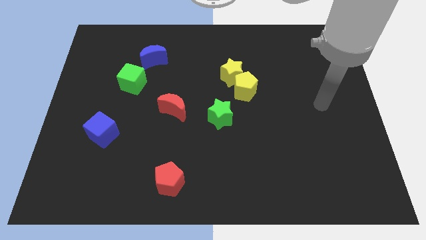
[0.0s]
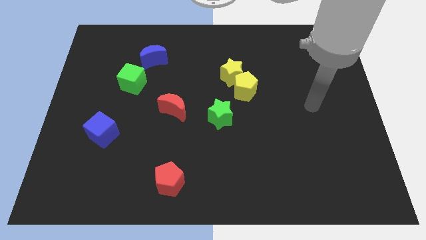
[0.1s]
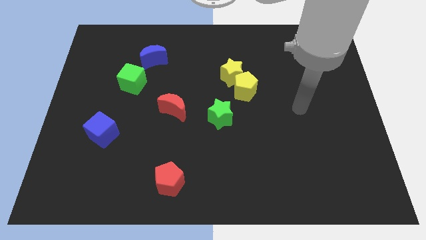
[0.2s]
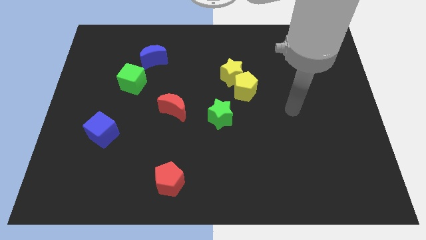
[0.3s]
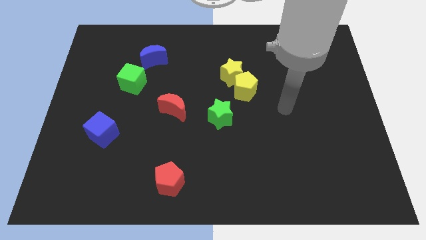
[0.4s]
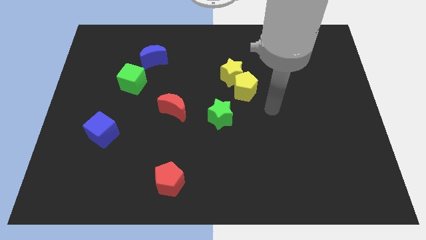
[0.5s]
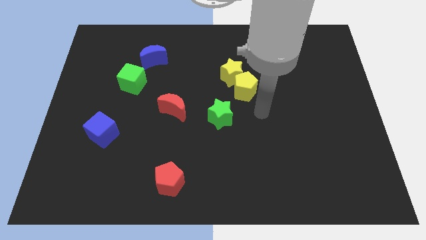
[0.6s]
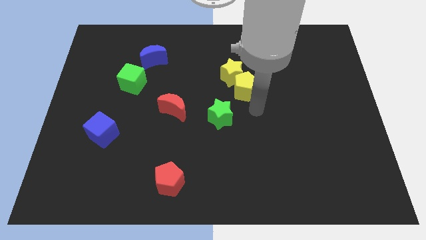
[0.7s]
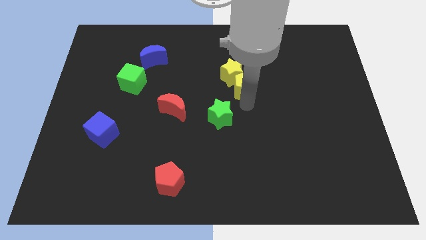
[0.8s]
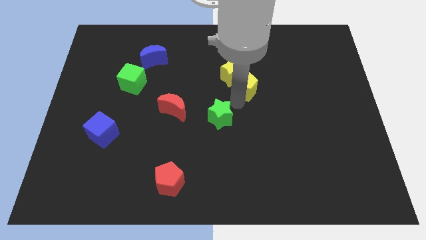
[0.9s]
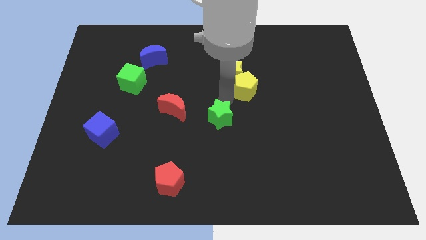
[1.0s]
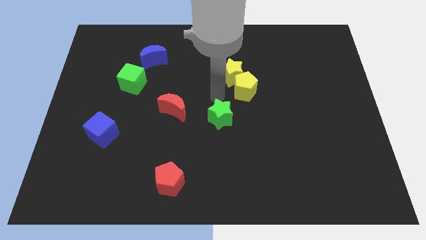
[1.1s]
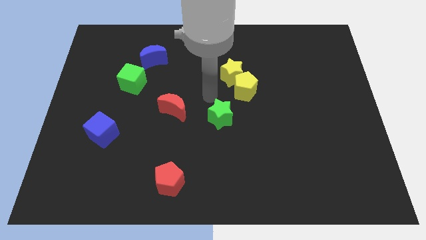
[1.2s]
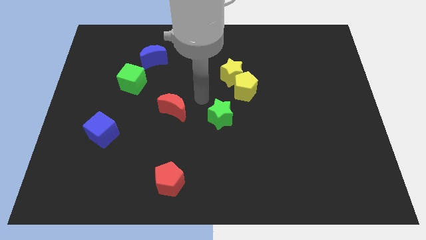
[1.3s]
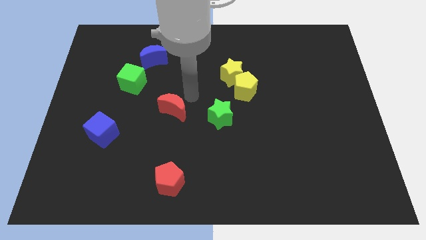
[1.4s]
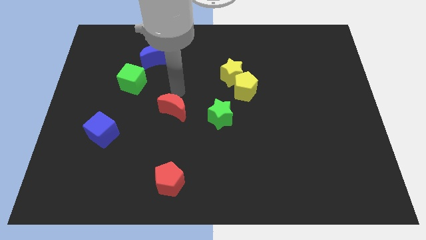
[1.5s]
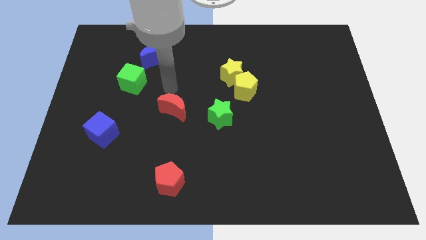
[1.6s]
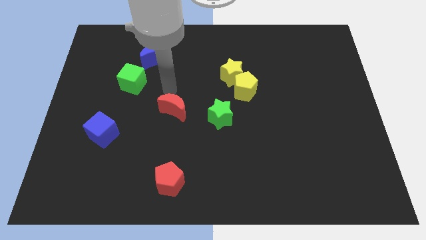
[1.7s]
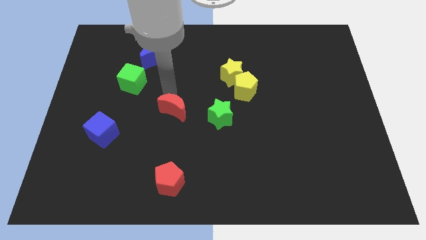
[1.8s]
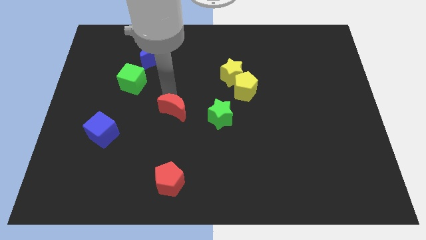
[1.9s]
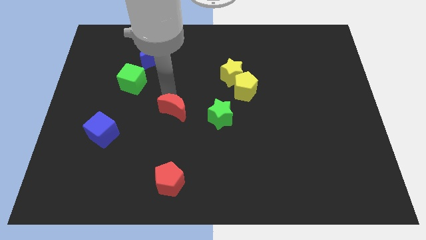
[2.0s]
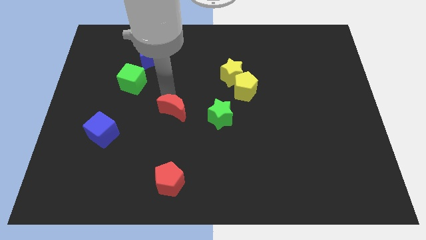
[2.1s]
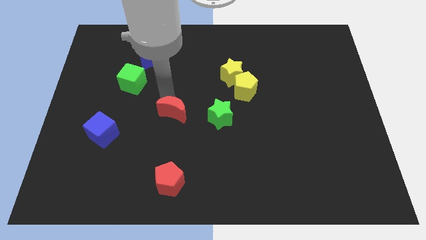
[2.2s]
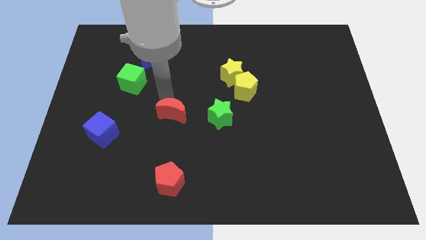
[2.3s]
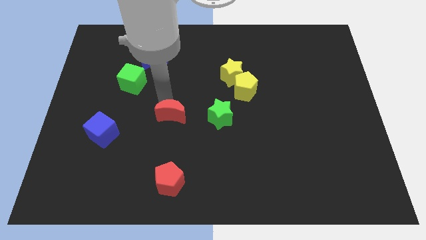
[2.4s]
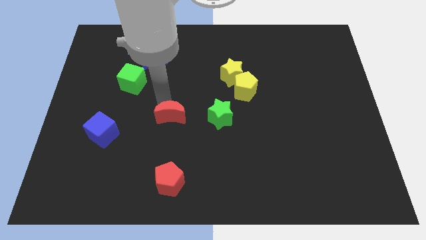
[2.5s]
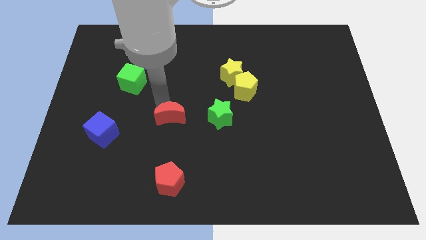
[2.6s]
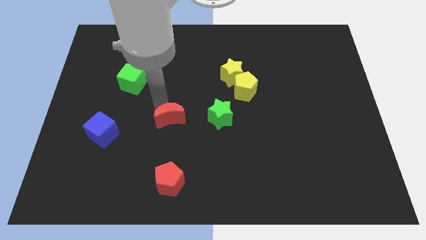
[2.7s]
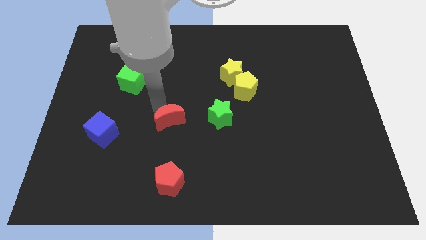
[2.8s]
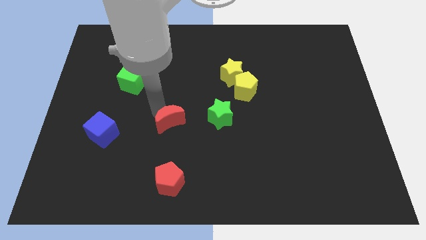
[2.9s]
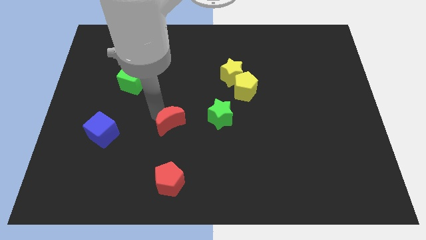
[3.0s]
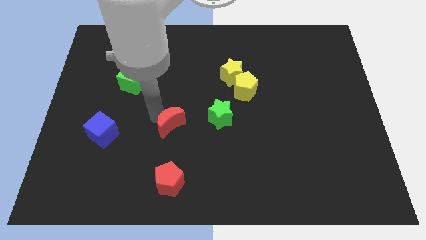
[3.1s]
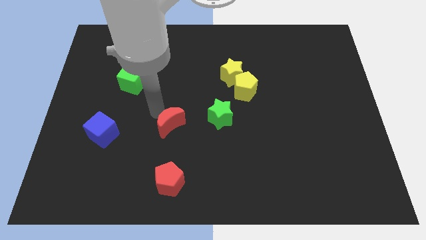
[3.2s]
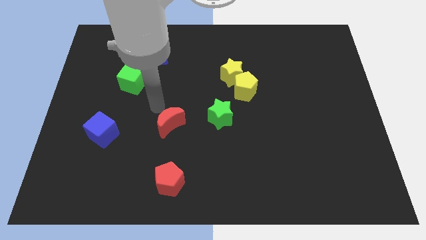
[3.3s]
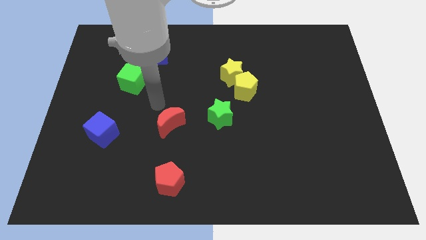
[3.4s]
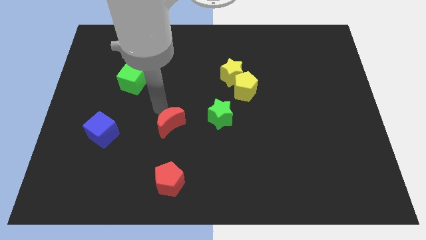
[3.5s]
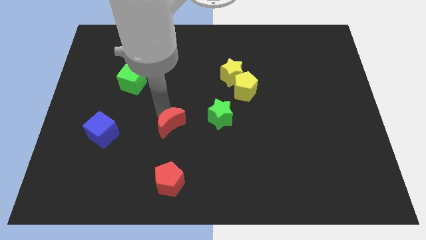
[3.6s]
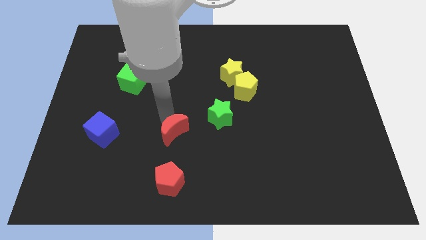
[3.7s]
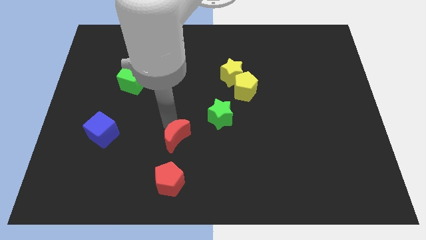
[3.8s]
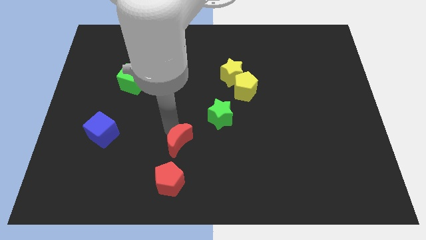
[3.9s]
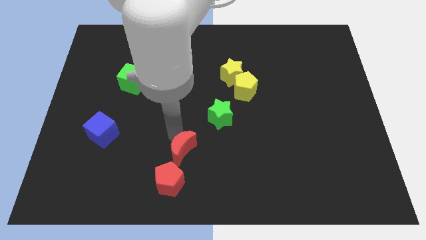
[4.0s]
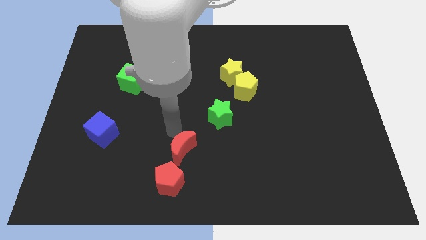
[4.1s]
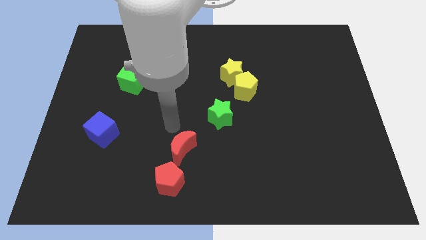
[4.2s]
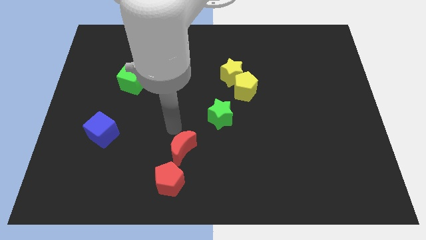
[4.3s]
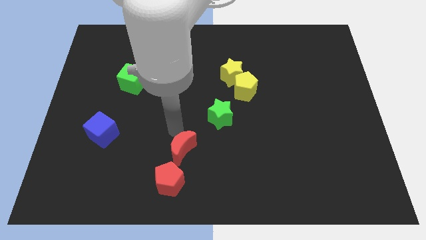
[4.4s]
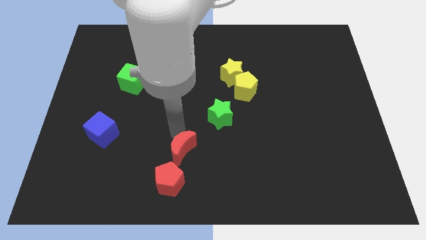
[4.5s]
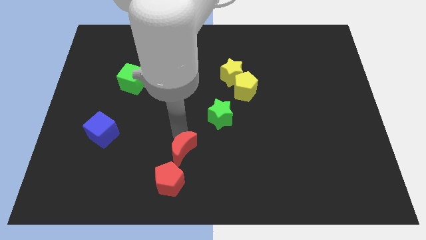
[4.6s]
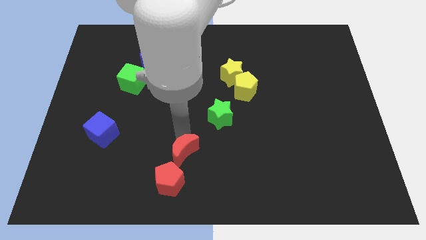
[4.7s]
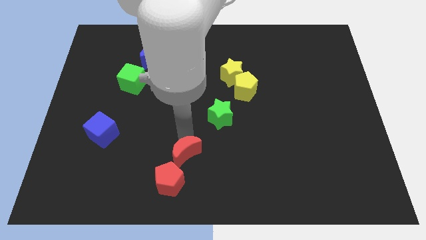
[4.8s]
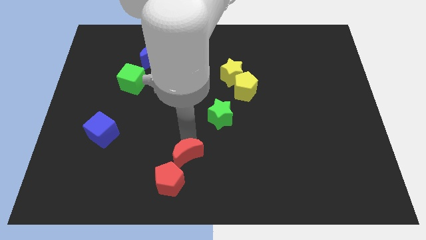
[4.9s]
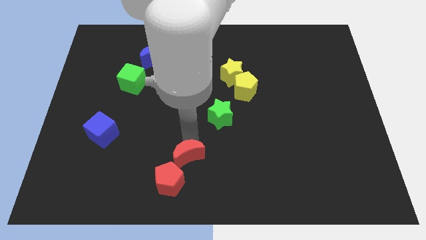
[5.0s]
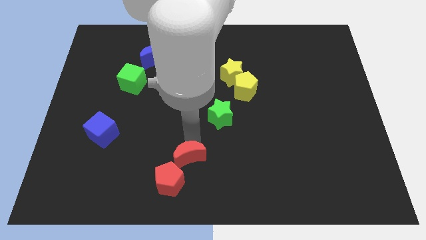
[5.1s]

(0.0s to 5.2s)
move the red moon to the bottom

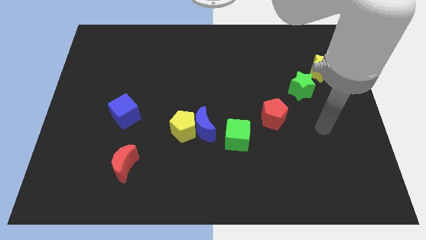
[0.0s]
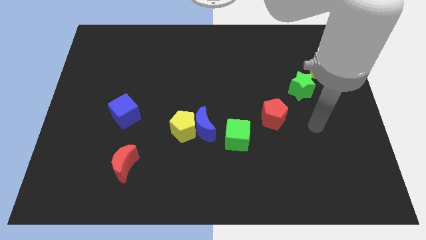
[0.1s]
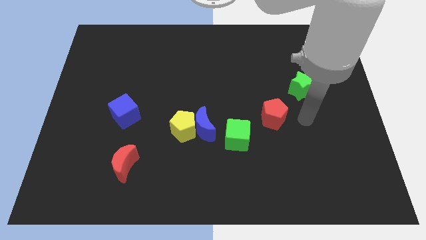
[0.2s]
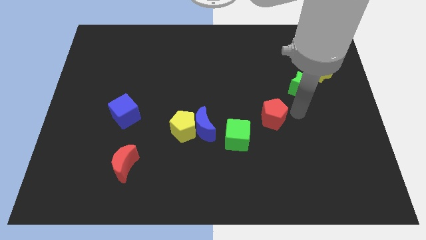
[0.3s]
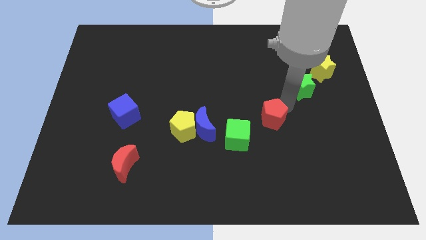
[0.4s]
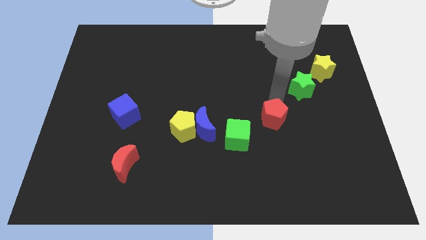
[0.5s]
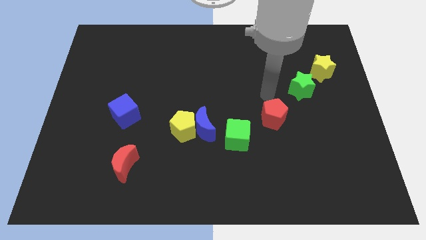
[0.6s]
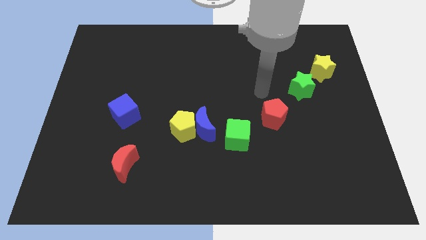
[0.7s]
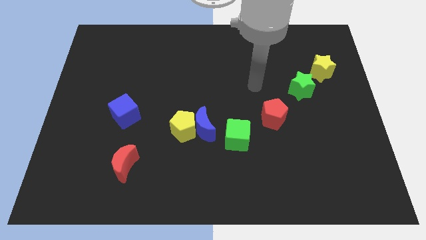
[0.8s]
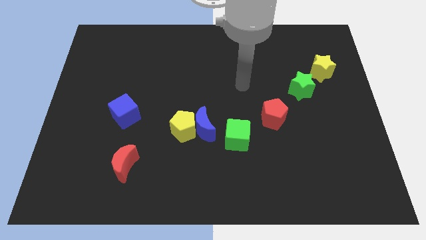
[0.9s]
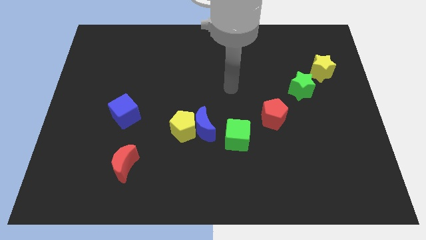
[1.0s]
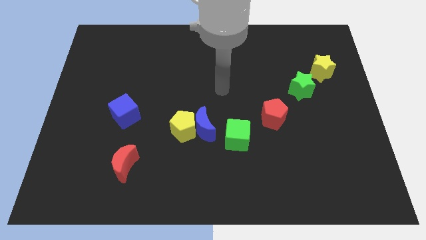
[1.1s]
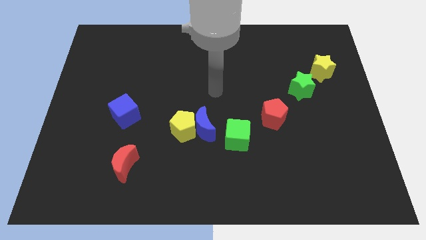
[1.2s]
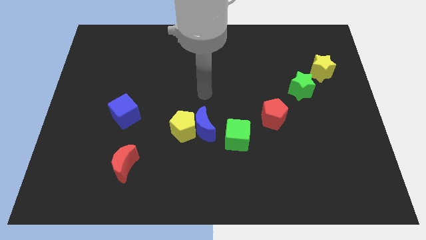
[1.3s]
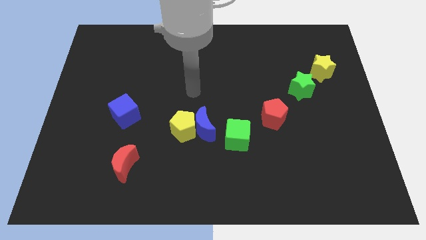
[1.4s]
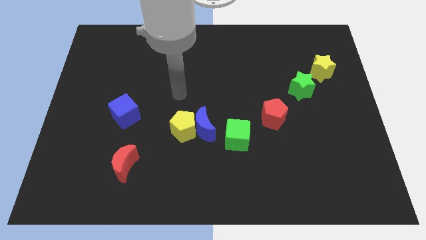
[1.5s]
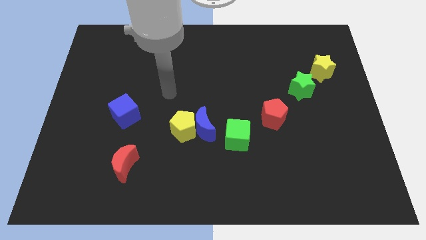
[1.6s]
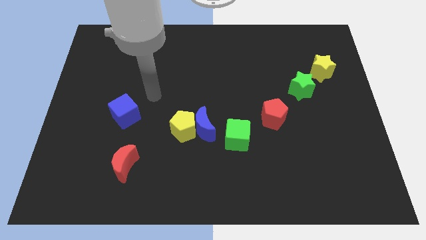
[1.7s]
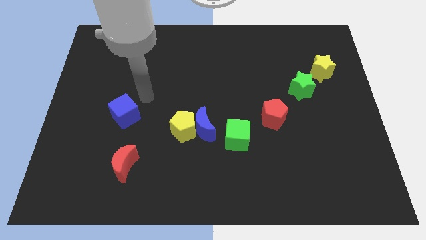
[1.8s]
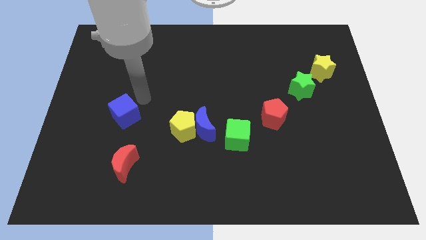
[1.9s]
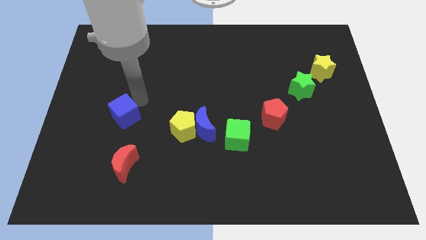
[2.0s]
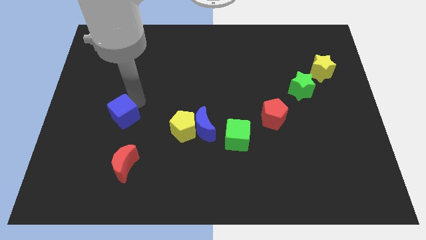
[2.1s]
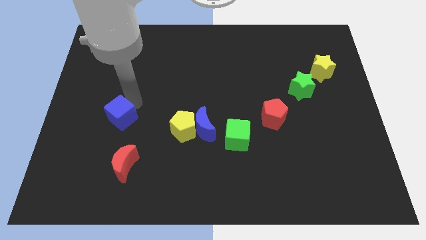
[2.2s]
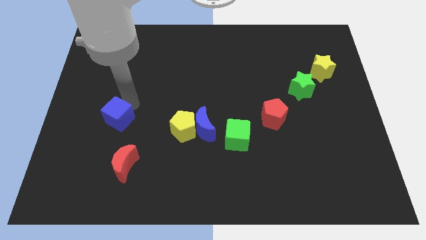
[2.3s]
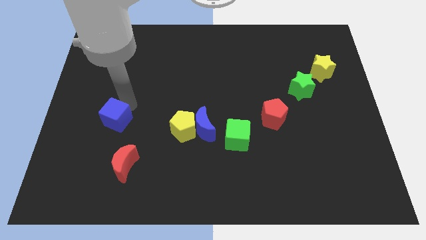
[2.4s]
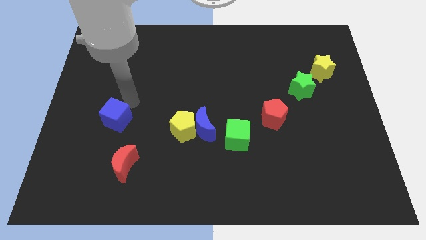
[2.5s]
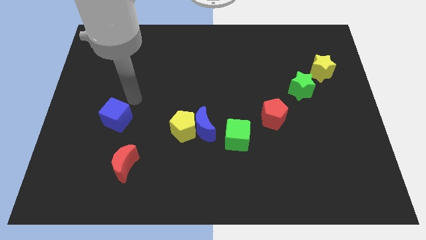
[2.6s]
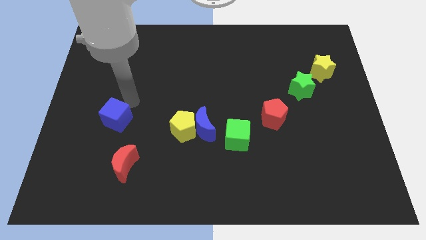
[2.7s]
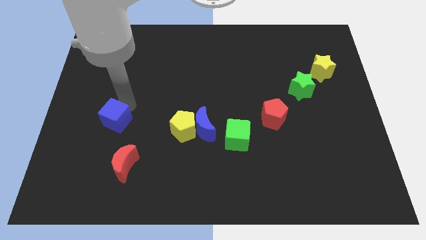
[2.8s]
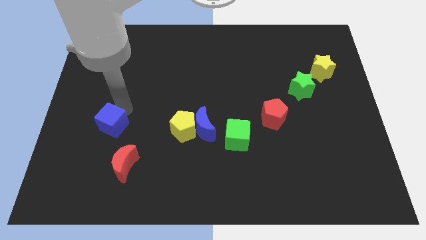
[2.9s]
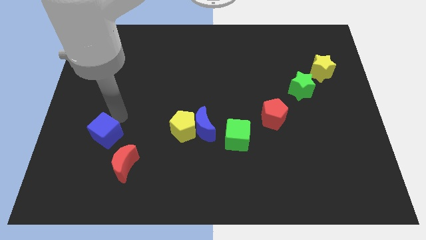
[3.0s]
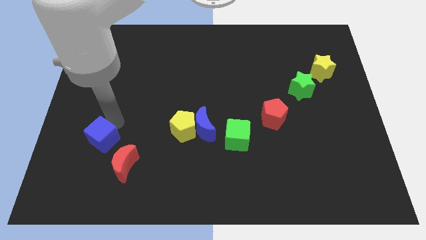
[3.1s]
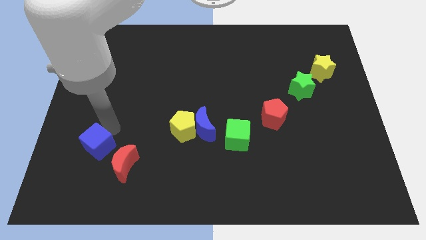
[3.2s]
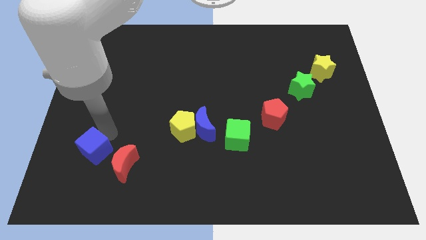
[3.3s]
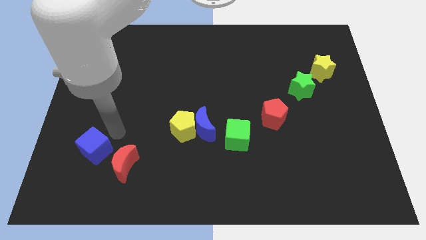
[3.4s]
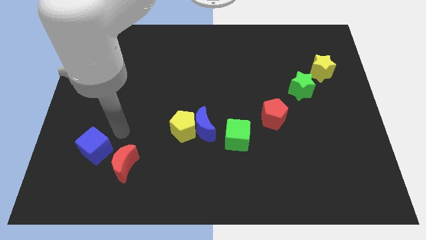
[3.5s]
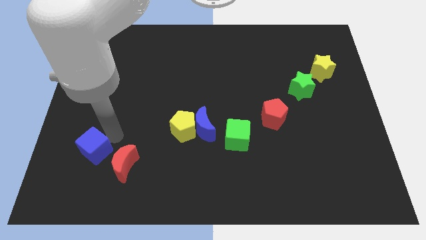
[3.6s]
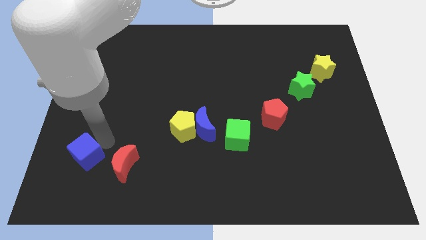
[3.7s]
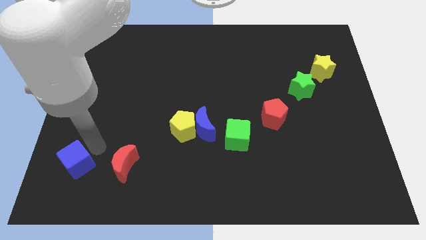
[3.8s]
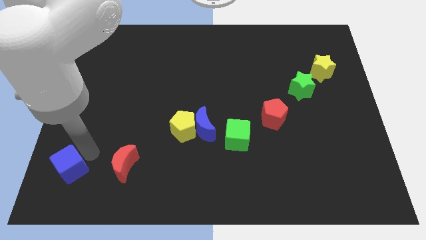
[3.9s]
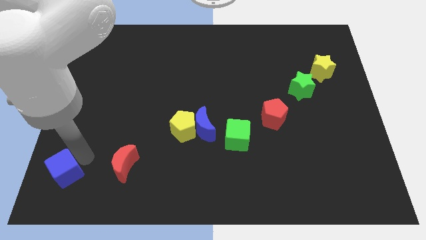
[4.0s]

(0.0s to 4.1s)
move the blue cube to the bottom left
